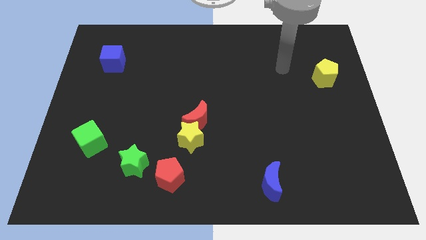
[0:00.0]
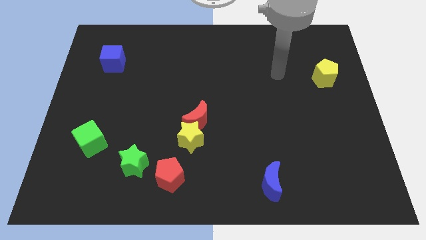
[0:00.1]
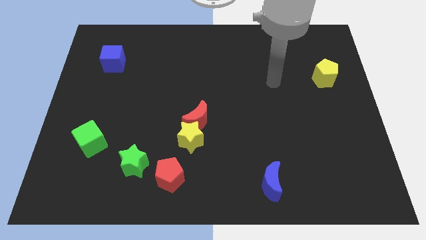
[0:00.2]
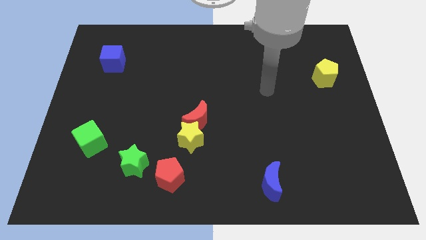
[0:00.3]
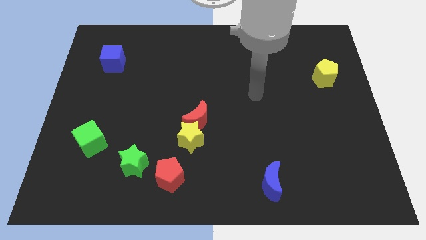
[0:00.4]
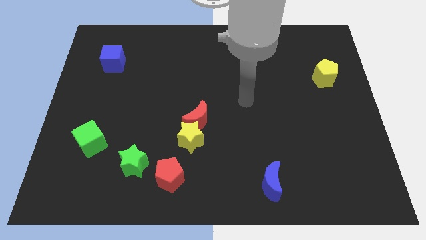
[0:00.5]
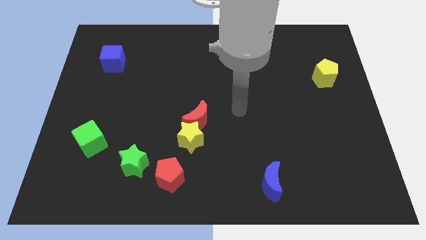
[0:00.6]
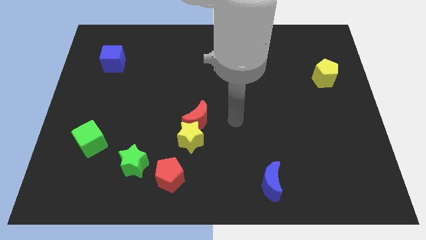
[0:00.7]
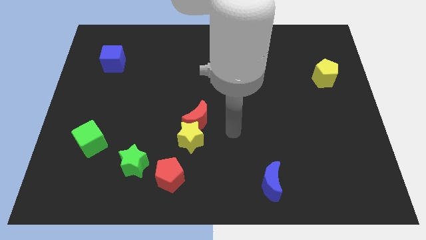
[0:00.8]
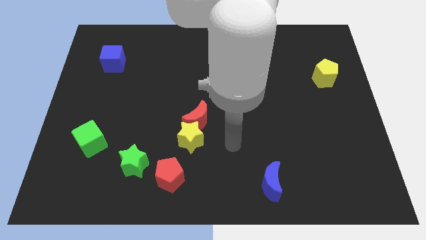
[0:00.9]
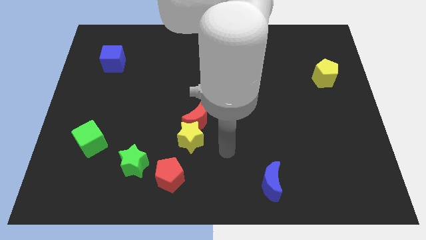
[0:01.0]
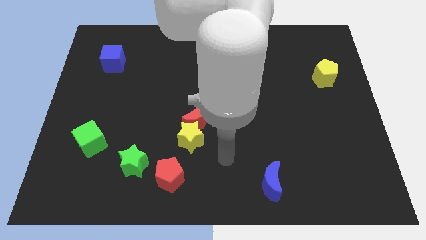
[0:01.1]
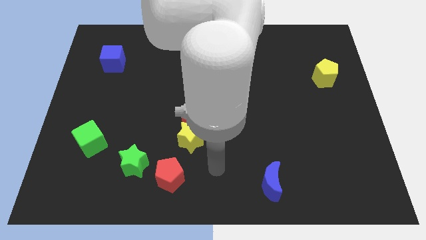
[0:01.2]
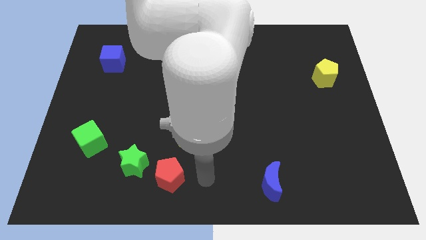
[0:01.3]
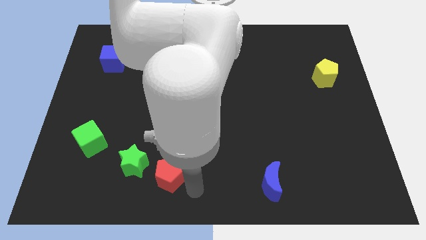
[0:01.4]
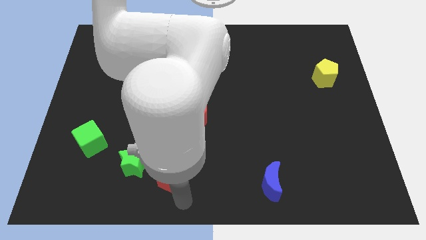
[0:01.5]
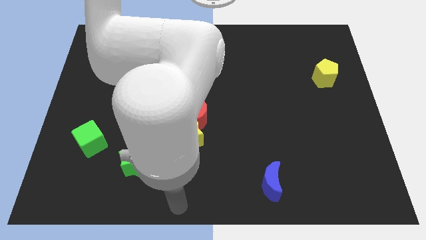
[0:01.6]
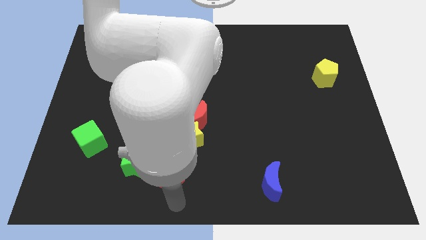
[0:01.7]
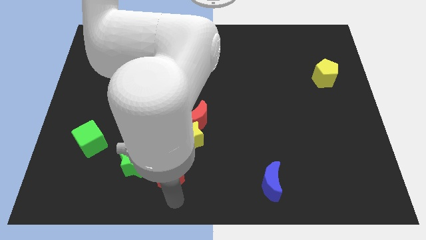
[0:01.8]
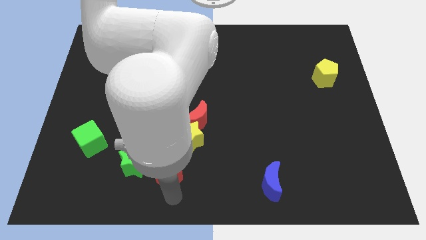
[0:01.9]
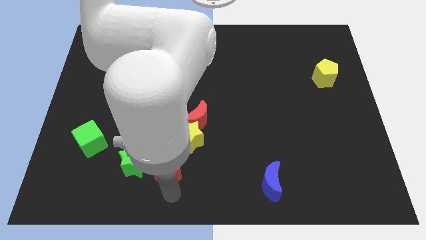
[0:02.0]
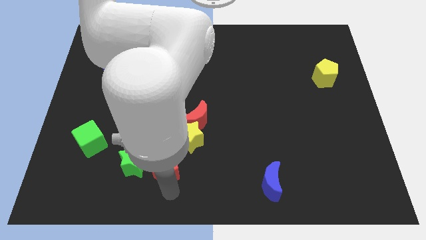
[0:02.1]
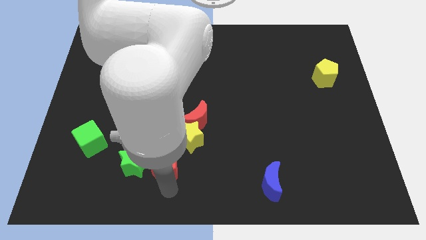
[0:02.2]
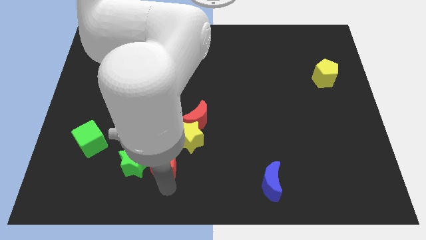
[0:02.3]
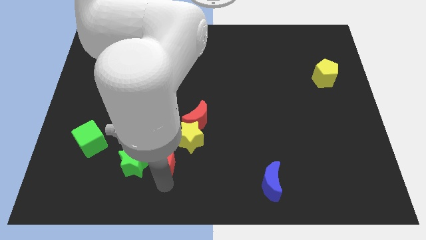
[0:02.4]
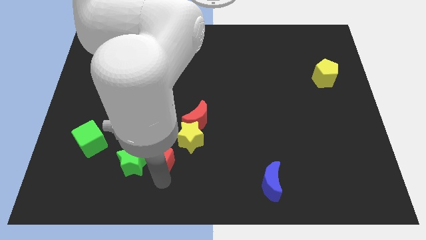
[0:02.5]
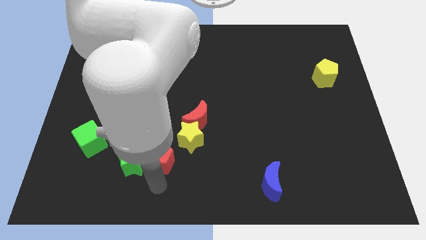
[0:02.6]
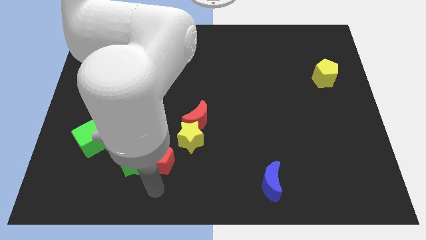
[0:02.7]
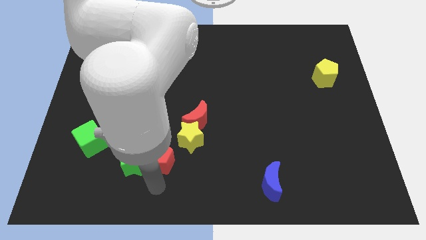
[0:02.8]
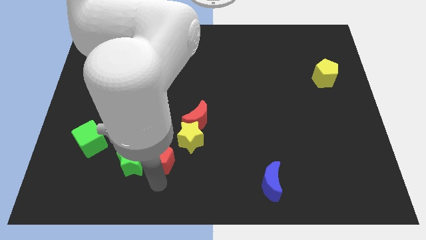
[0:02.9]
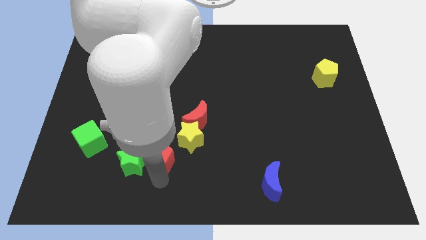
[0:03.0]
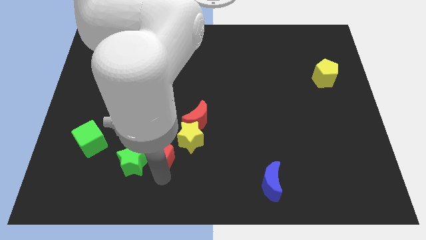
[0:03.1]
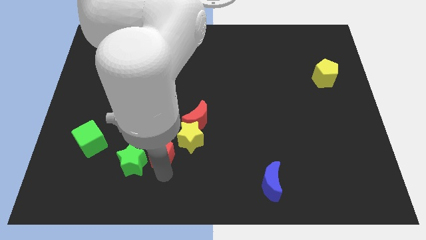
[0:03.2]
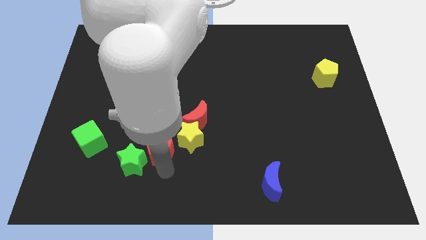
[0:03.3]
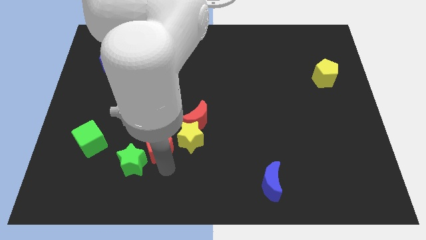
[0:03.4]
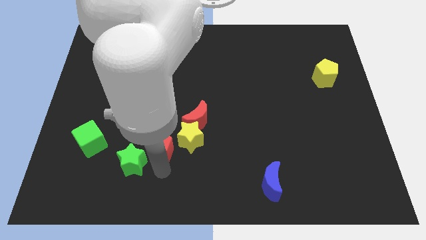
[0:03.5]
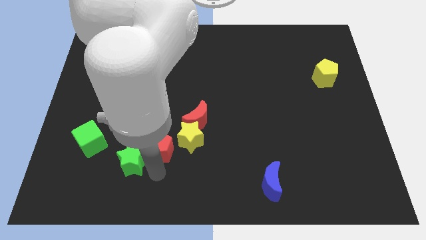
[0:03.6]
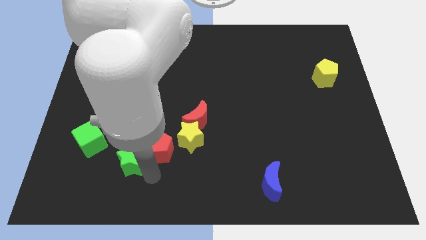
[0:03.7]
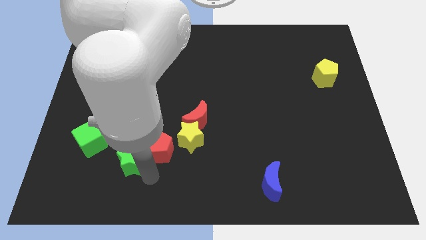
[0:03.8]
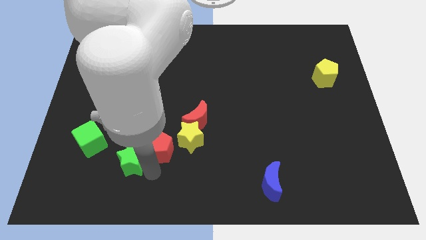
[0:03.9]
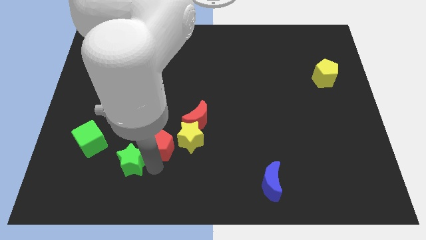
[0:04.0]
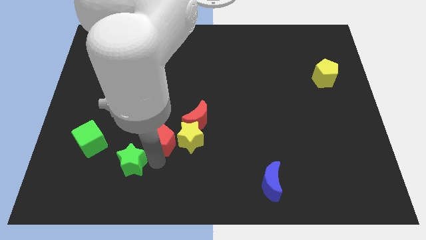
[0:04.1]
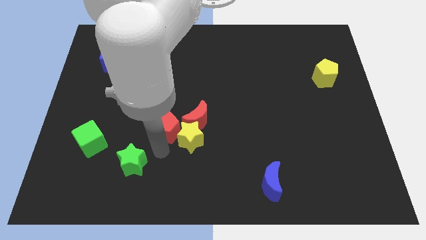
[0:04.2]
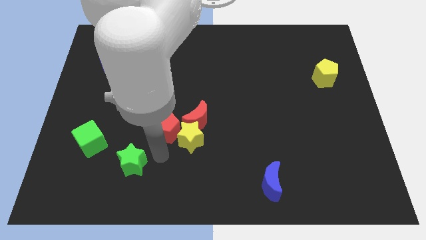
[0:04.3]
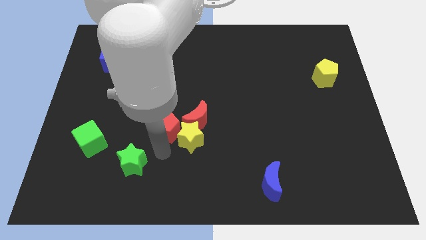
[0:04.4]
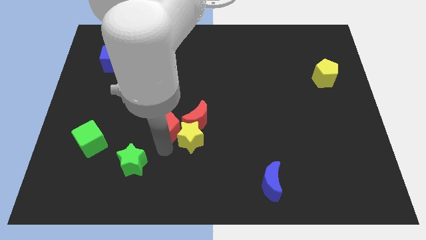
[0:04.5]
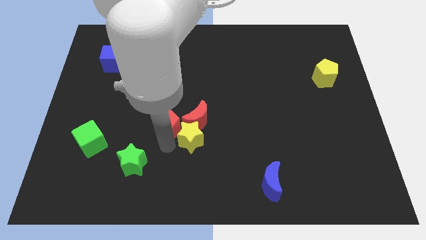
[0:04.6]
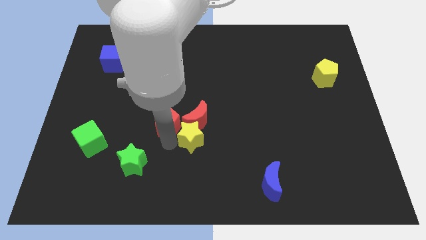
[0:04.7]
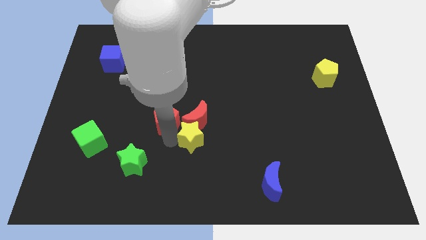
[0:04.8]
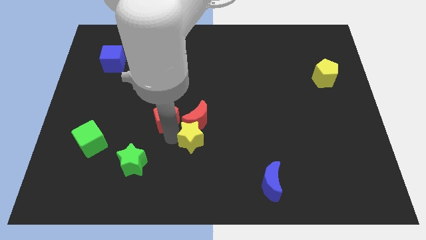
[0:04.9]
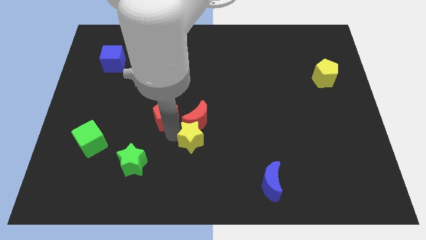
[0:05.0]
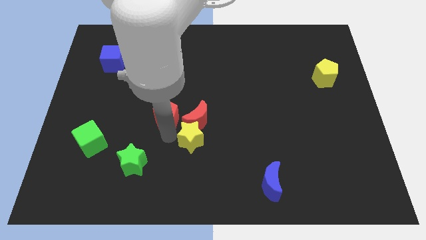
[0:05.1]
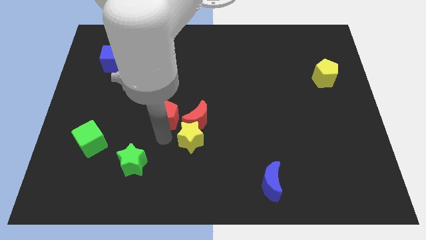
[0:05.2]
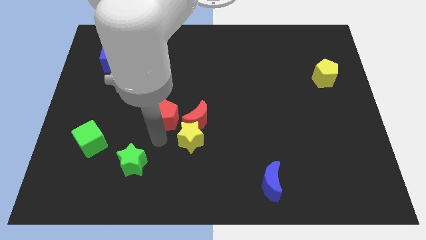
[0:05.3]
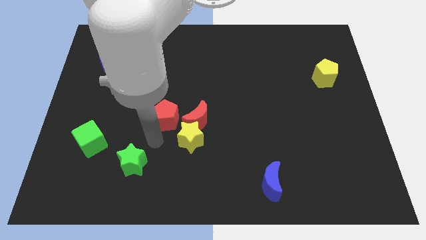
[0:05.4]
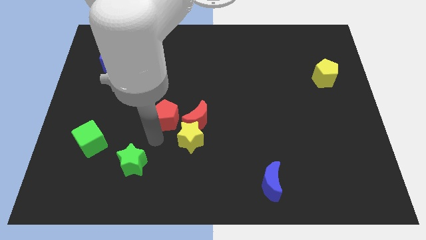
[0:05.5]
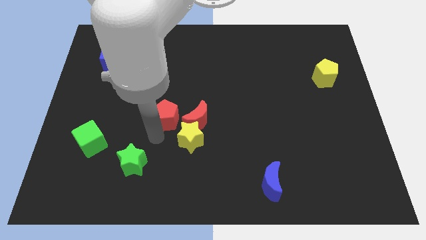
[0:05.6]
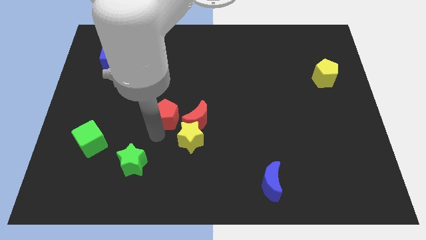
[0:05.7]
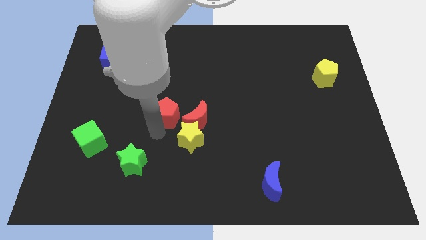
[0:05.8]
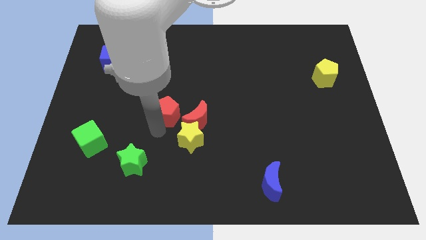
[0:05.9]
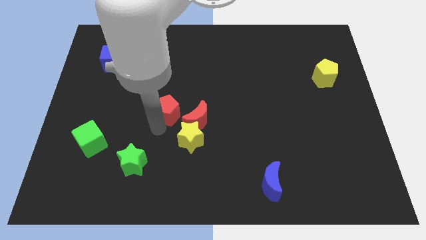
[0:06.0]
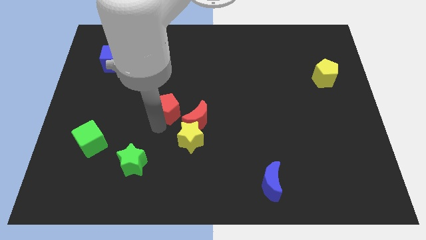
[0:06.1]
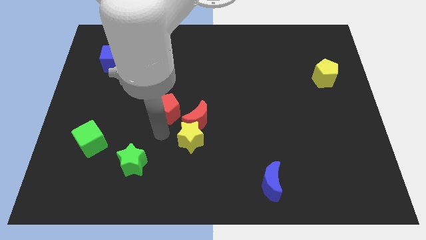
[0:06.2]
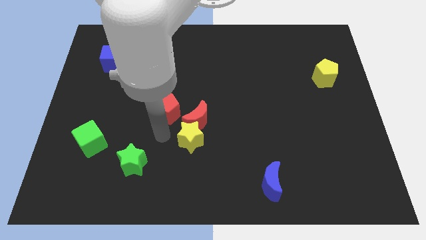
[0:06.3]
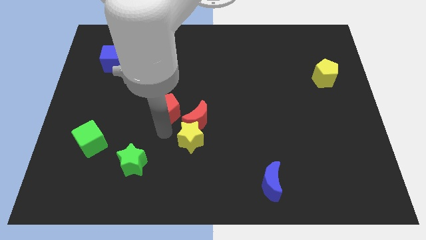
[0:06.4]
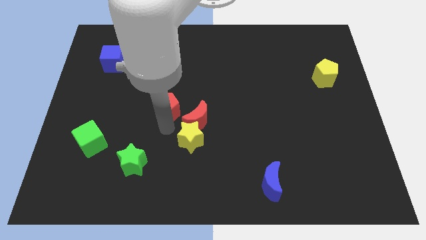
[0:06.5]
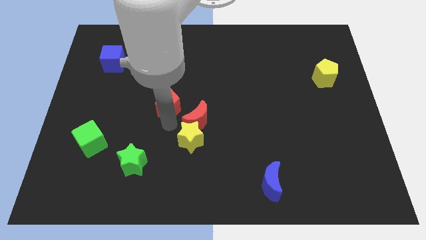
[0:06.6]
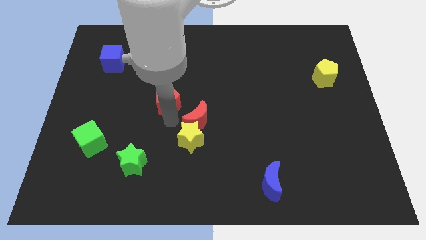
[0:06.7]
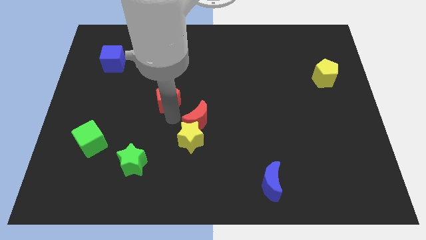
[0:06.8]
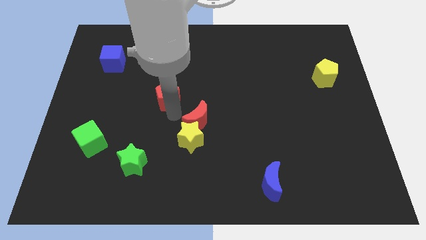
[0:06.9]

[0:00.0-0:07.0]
move the red pentagon upwards

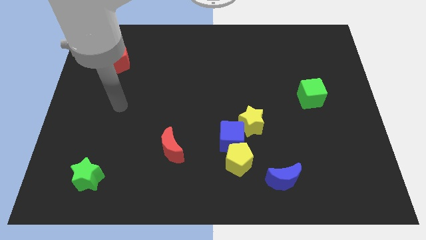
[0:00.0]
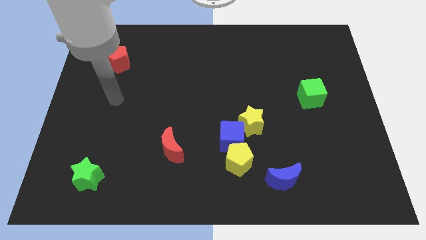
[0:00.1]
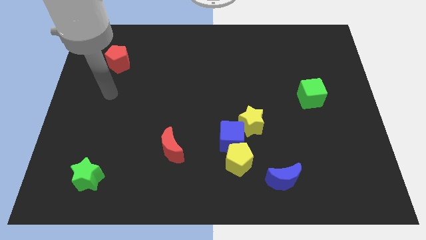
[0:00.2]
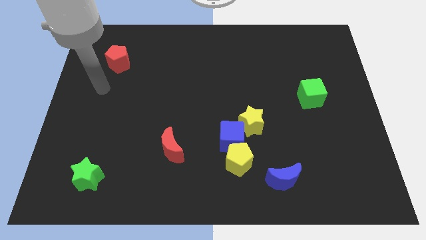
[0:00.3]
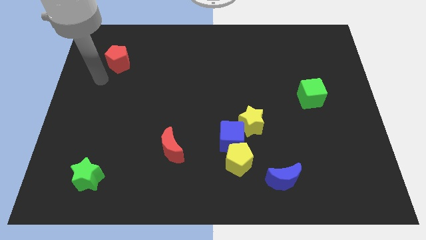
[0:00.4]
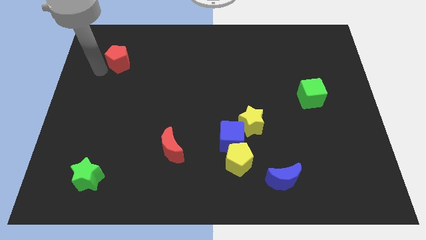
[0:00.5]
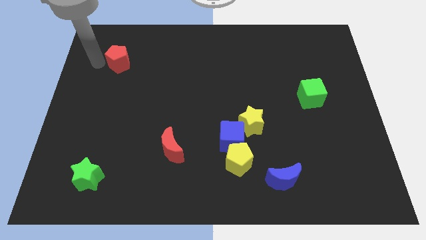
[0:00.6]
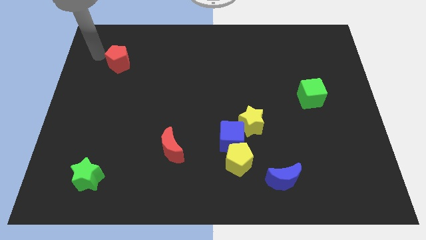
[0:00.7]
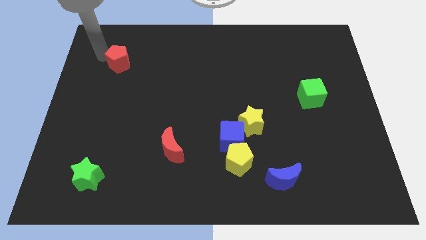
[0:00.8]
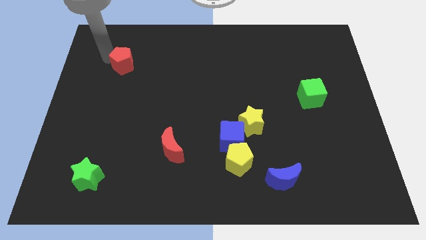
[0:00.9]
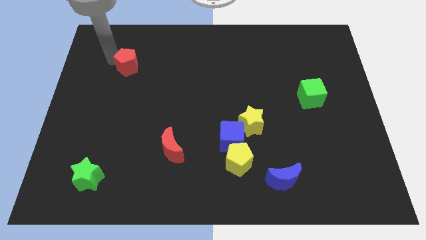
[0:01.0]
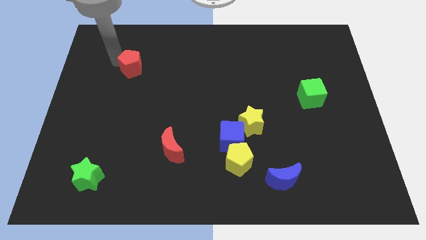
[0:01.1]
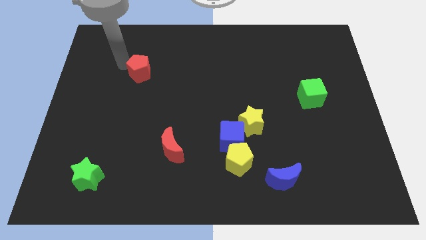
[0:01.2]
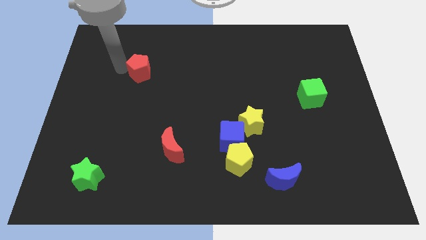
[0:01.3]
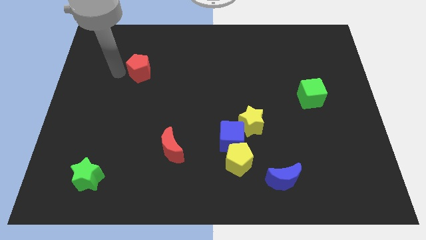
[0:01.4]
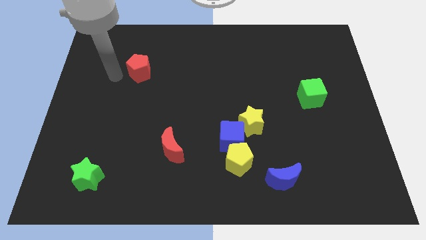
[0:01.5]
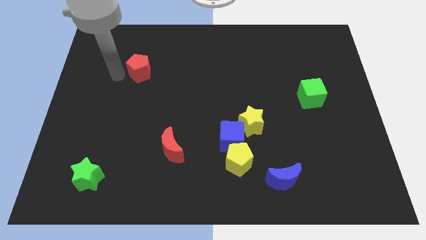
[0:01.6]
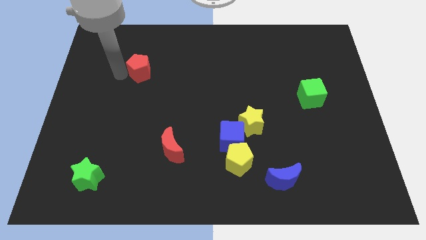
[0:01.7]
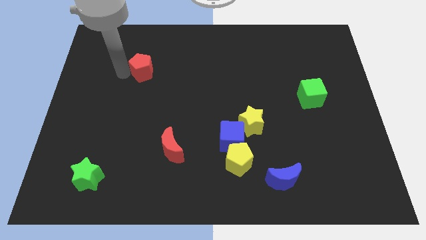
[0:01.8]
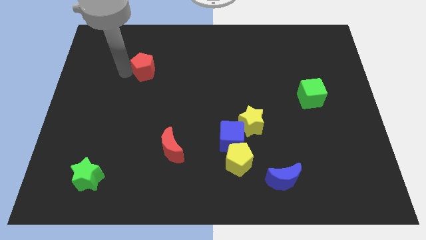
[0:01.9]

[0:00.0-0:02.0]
move the red pentagon to the right a little bit
